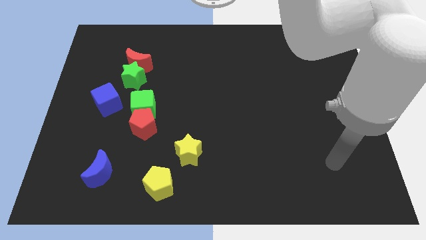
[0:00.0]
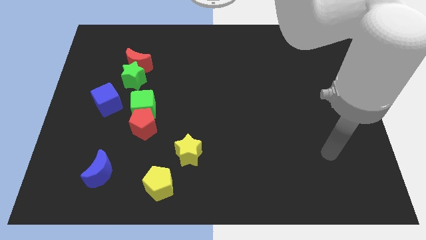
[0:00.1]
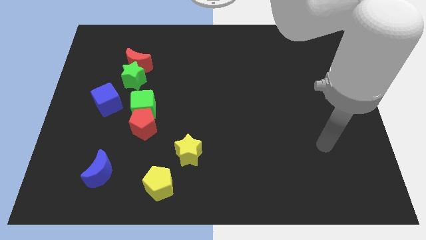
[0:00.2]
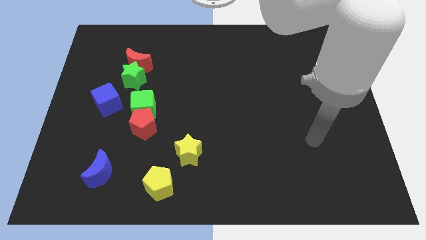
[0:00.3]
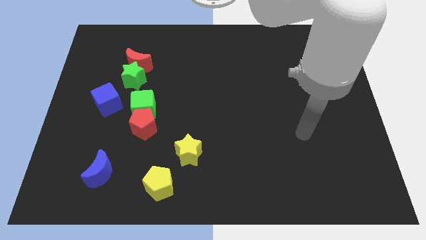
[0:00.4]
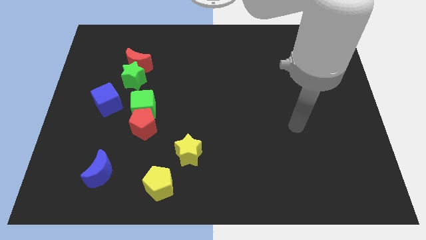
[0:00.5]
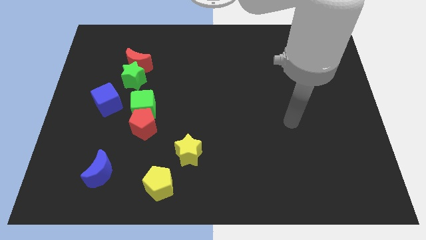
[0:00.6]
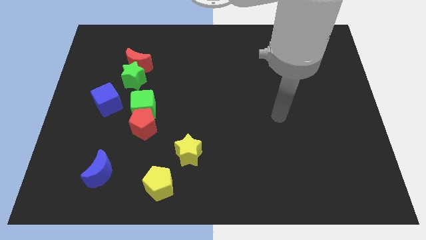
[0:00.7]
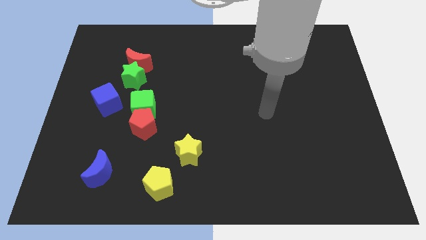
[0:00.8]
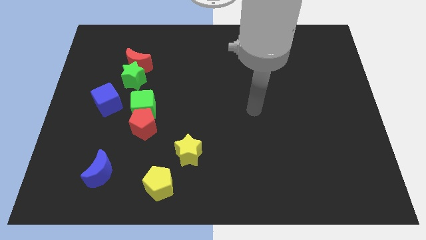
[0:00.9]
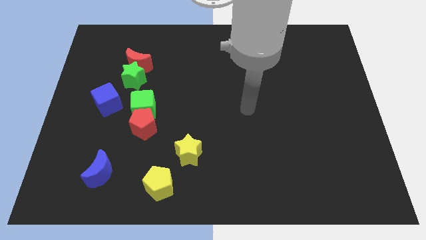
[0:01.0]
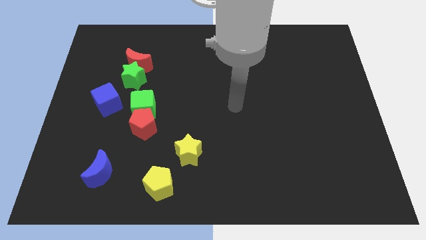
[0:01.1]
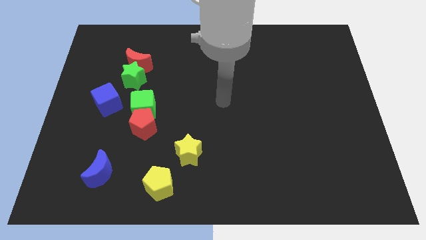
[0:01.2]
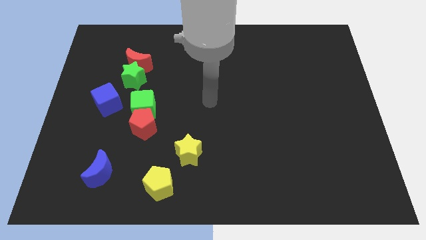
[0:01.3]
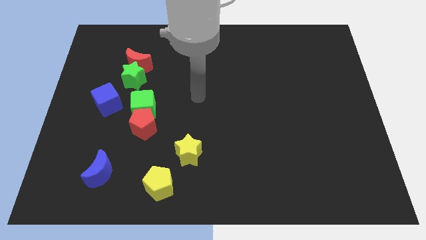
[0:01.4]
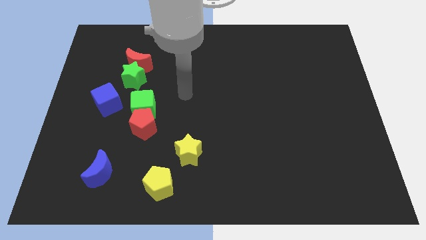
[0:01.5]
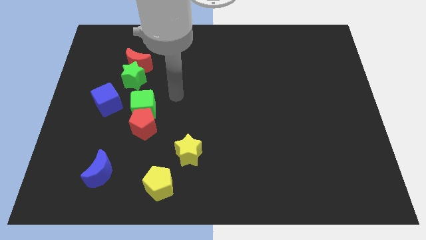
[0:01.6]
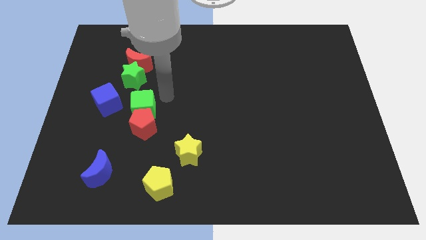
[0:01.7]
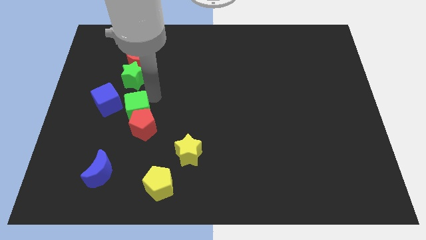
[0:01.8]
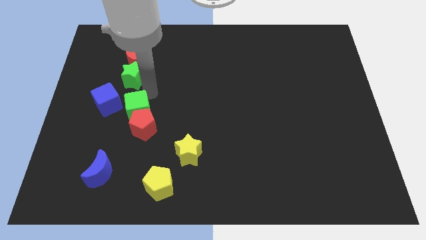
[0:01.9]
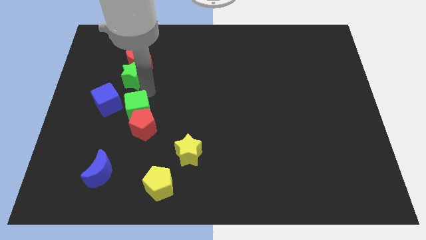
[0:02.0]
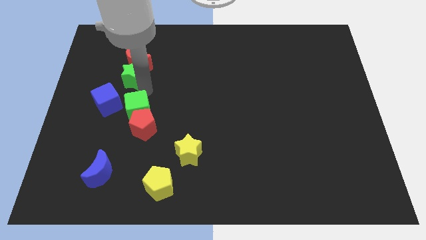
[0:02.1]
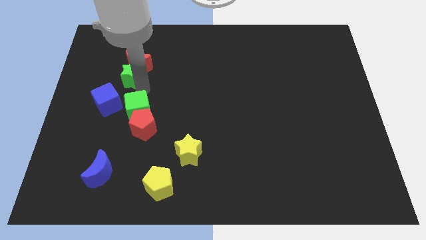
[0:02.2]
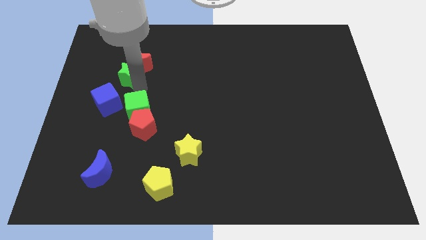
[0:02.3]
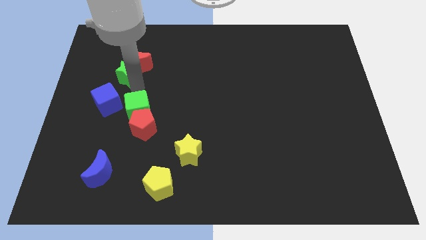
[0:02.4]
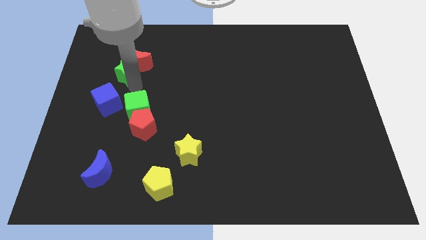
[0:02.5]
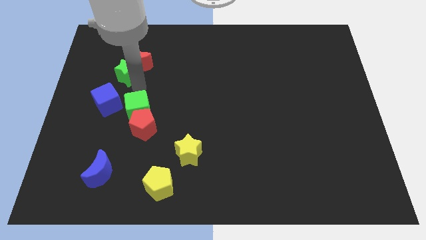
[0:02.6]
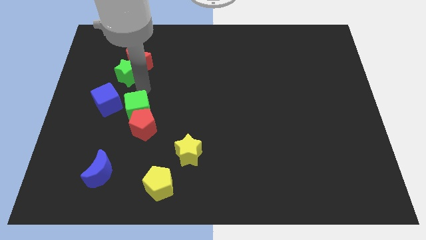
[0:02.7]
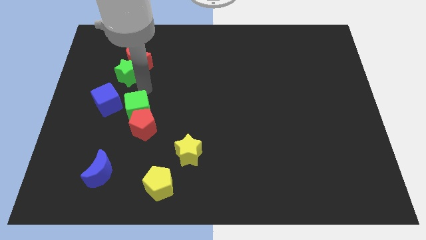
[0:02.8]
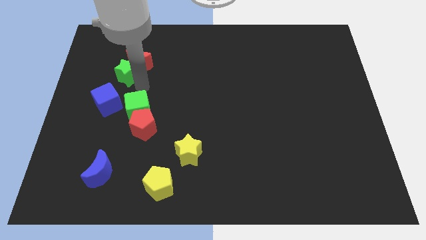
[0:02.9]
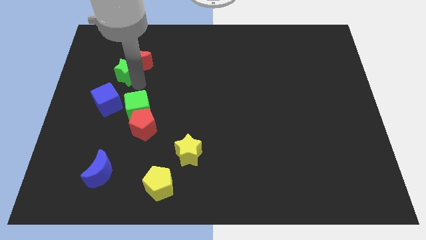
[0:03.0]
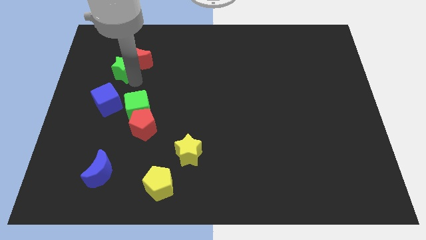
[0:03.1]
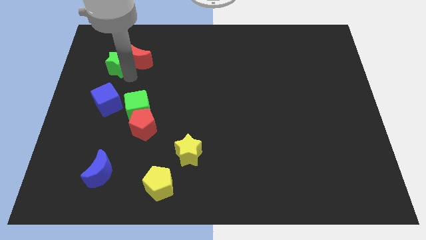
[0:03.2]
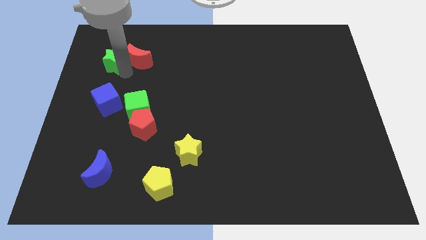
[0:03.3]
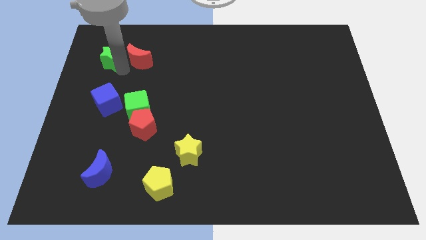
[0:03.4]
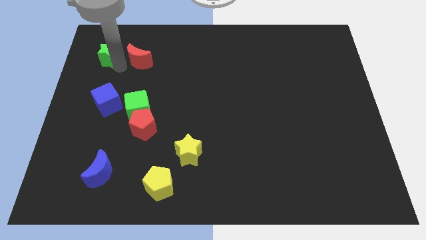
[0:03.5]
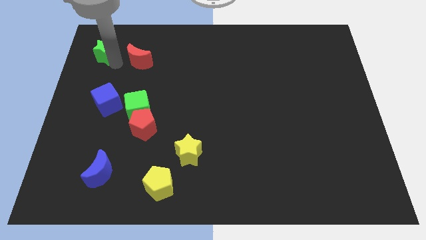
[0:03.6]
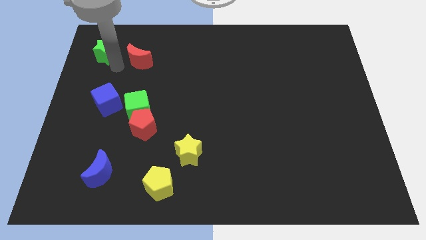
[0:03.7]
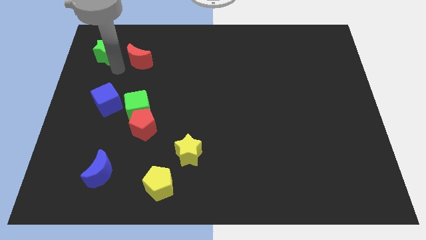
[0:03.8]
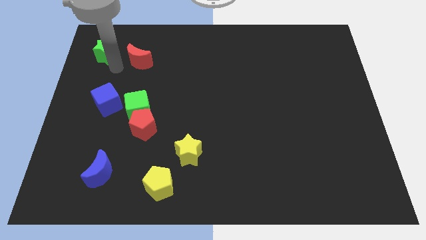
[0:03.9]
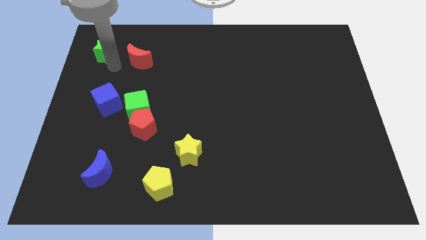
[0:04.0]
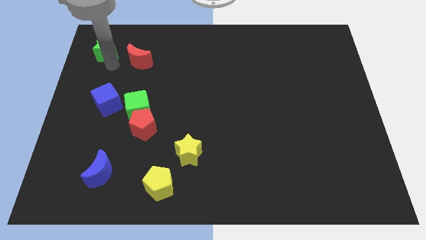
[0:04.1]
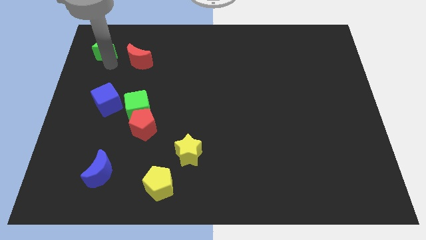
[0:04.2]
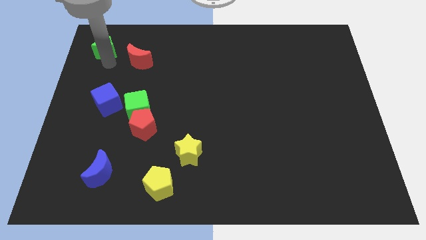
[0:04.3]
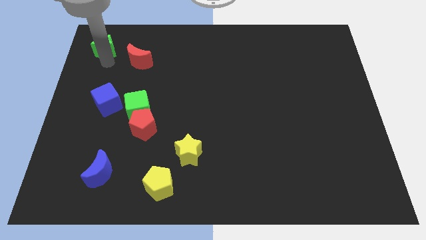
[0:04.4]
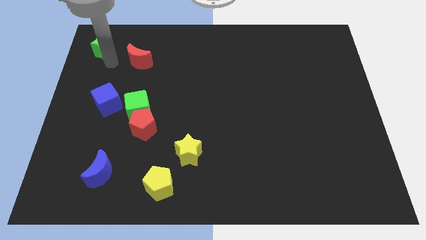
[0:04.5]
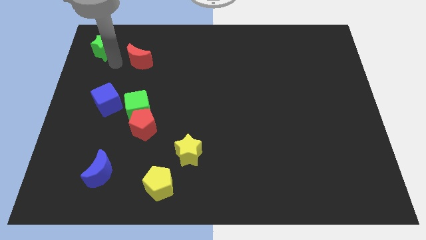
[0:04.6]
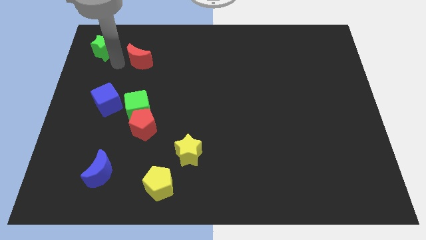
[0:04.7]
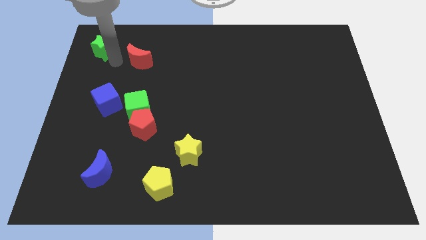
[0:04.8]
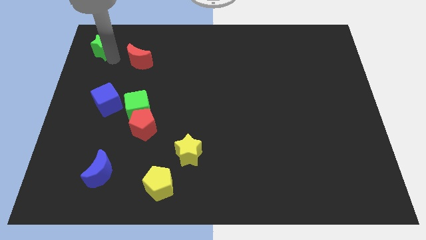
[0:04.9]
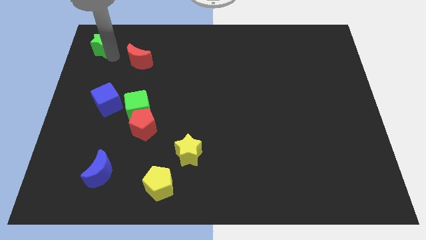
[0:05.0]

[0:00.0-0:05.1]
move the green star to the top left of the board
